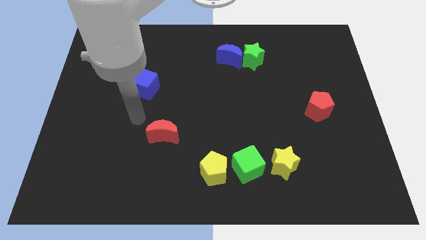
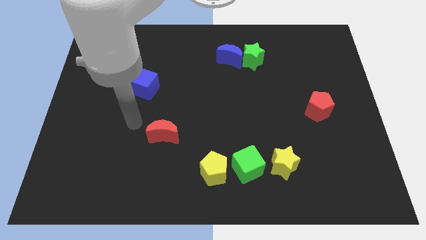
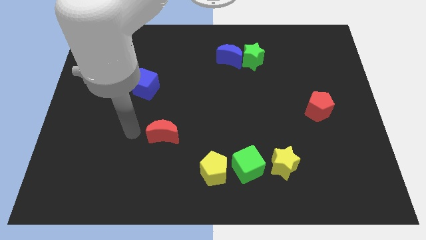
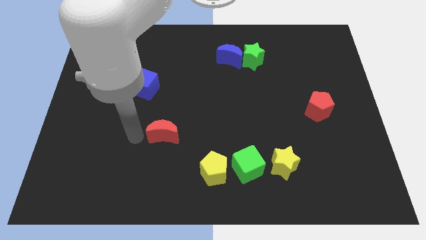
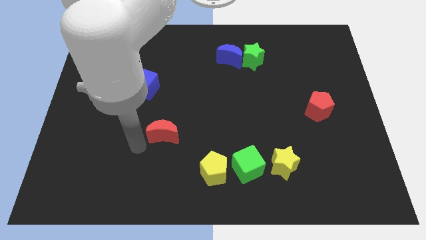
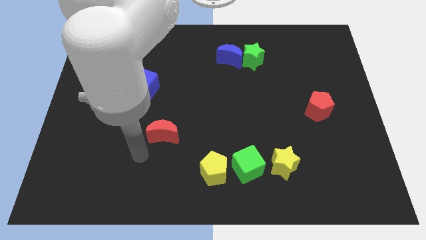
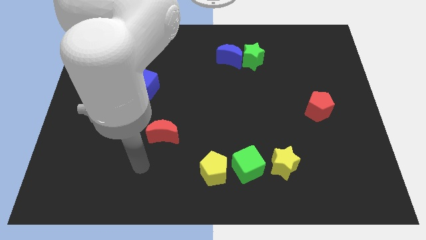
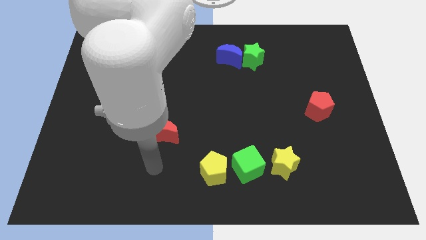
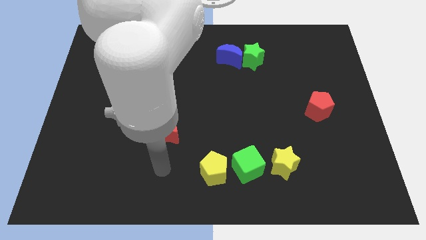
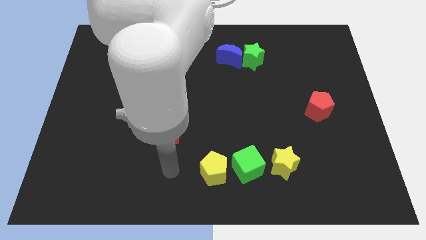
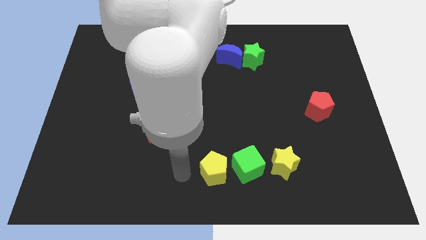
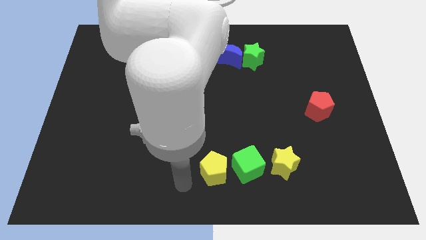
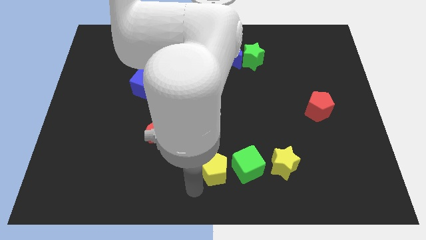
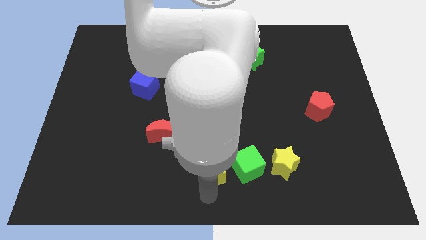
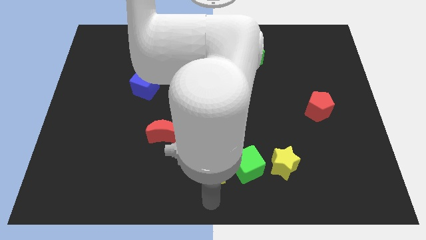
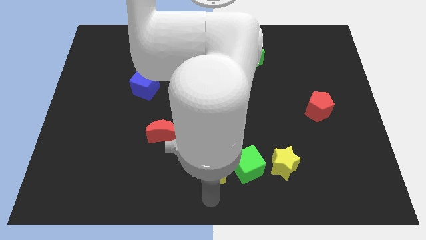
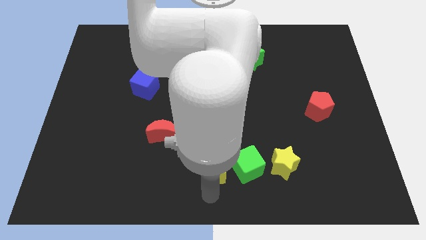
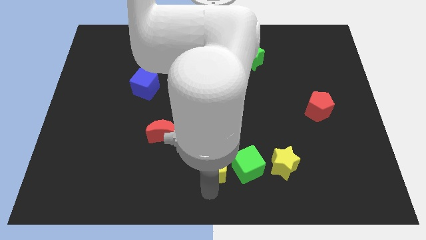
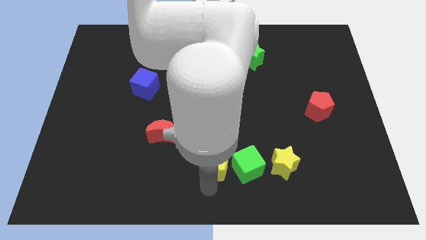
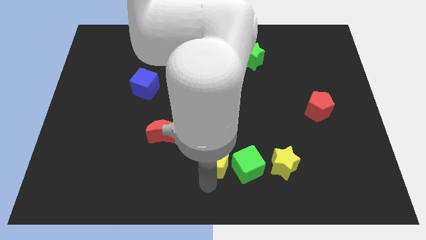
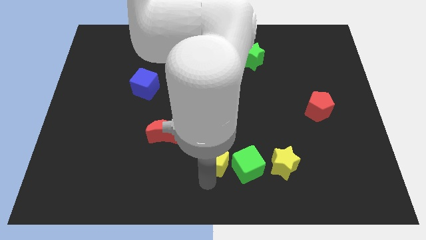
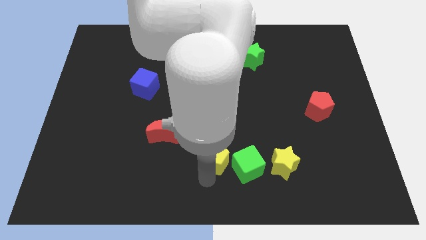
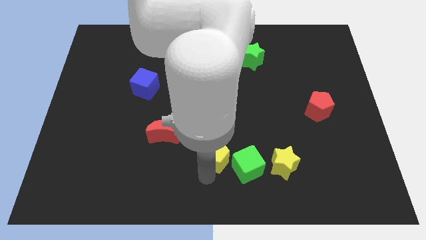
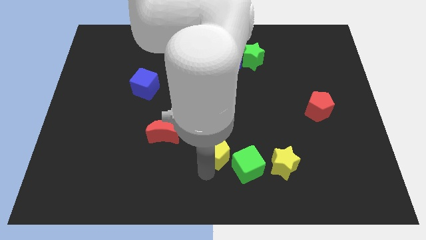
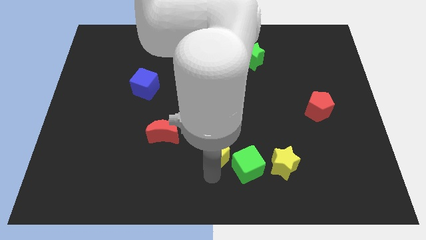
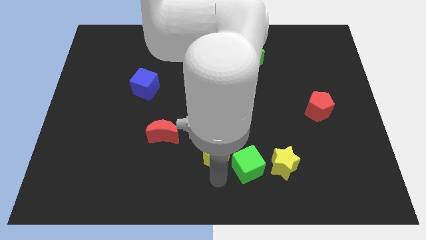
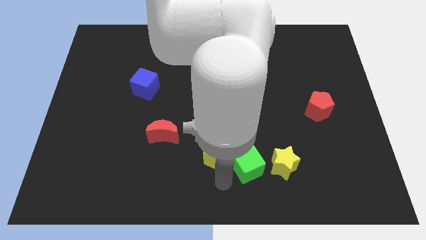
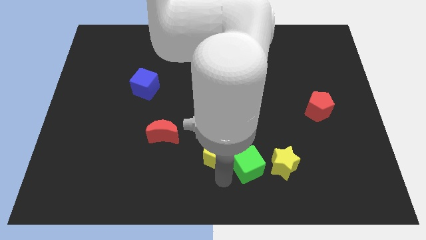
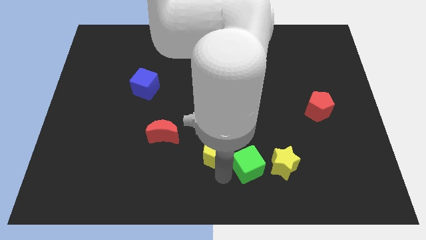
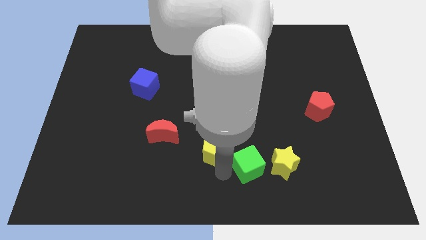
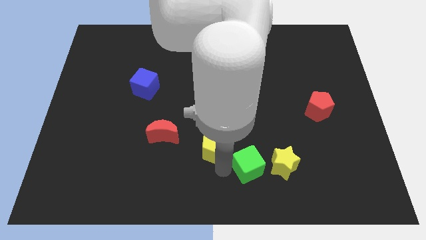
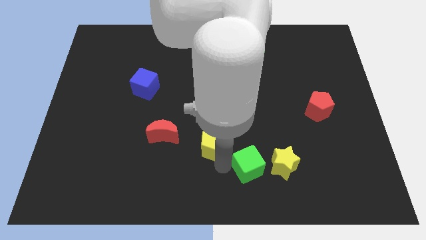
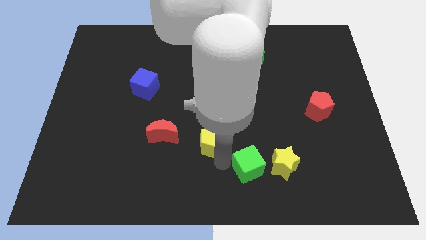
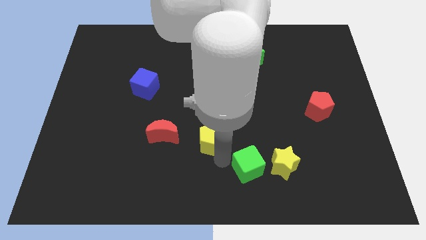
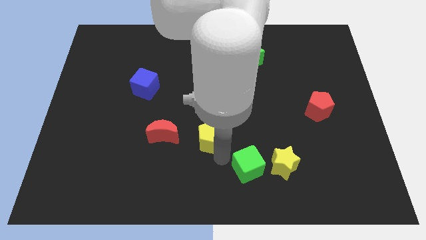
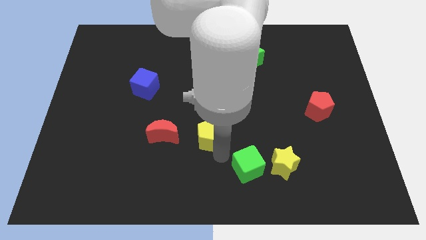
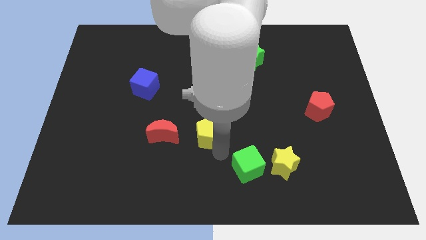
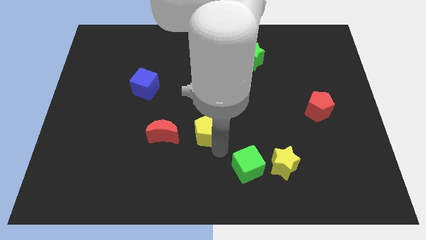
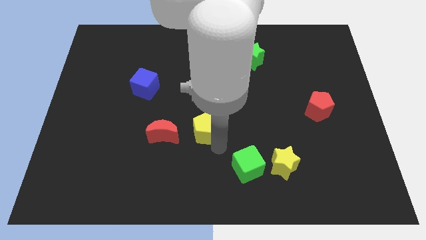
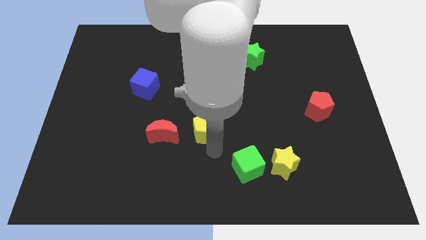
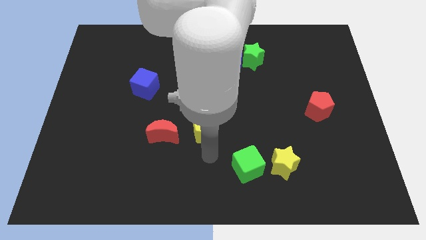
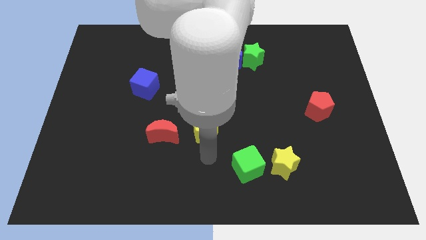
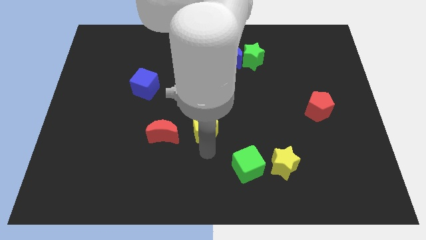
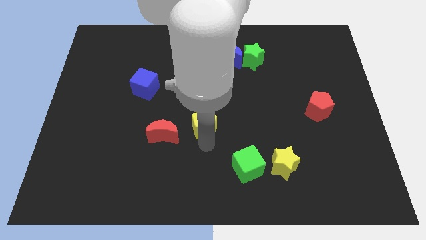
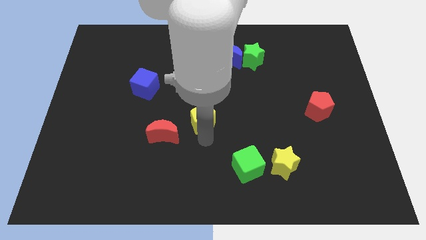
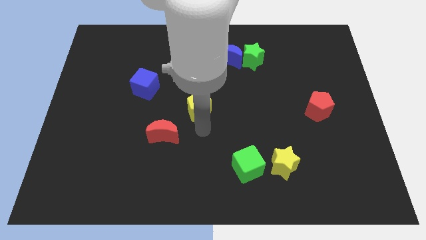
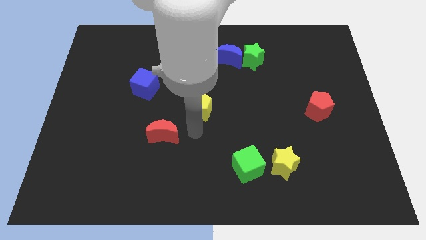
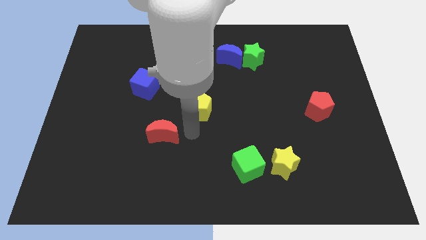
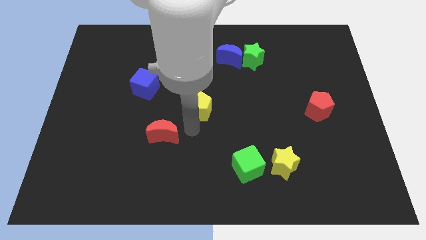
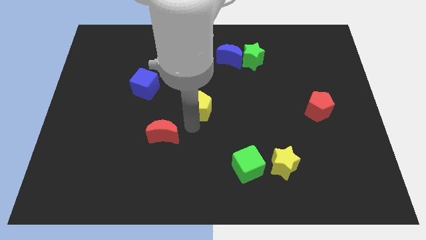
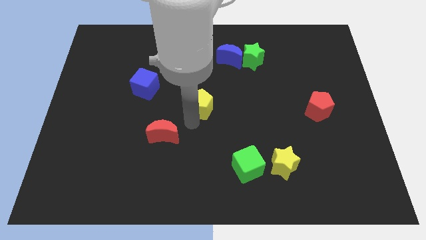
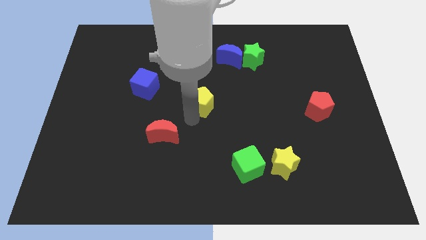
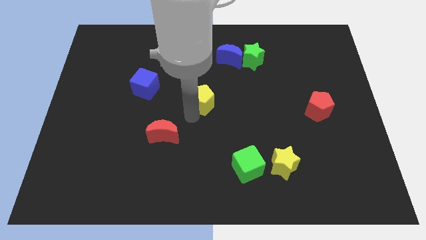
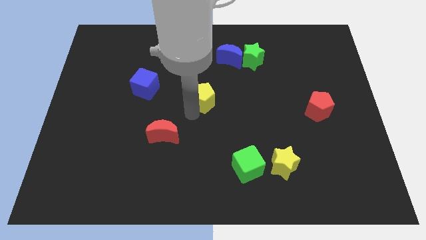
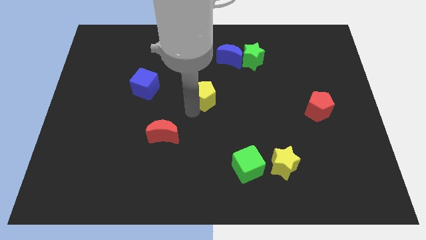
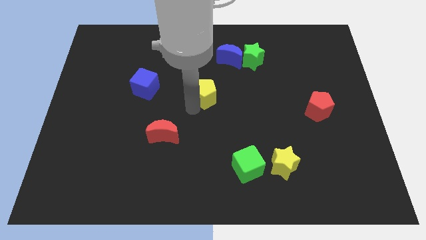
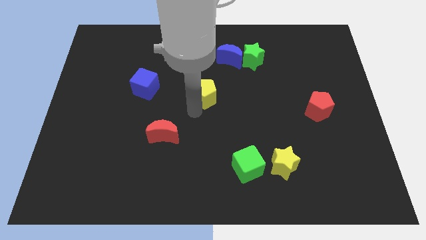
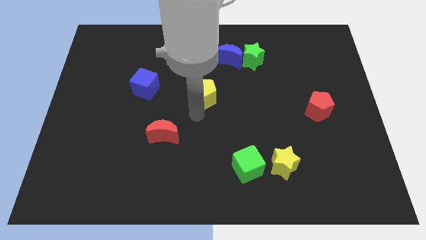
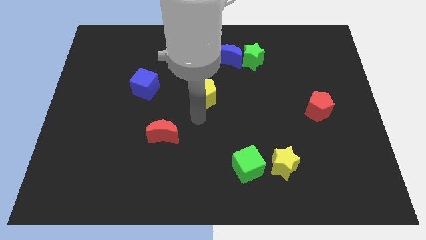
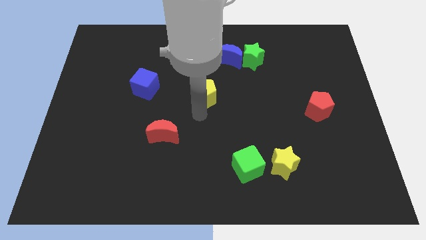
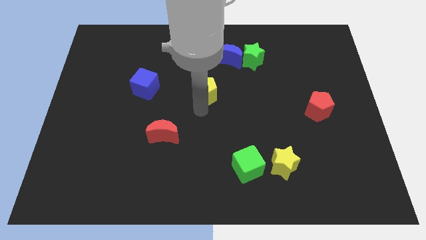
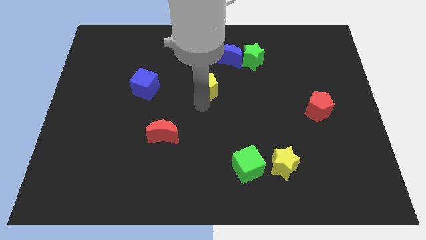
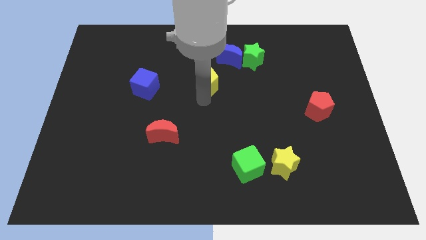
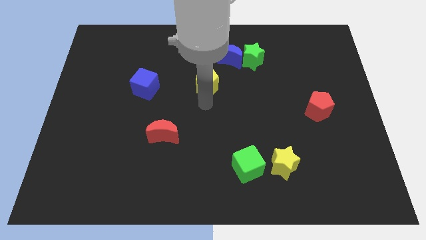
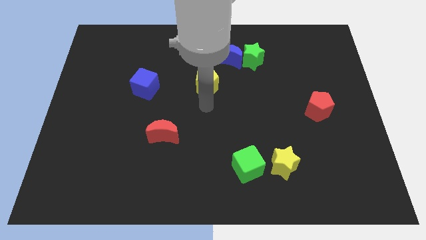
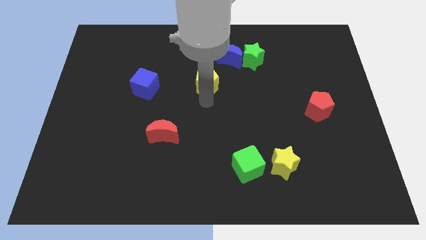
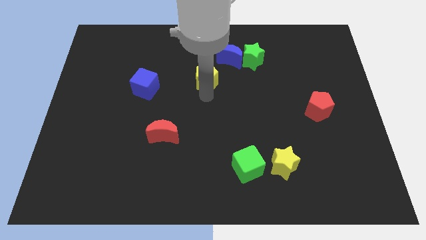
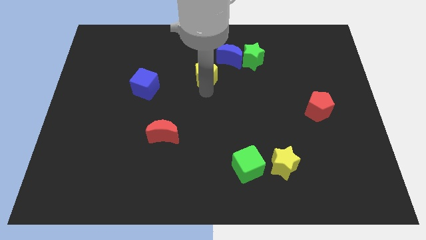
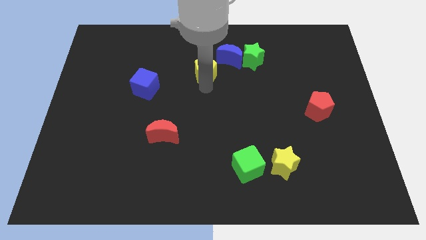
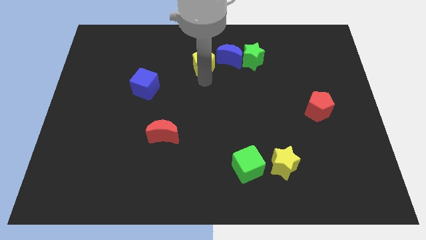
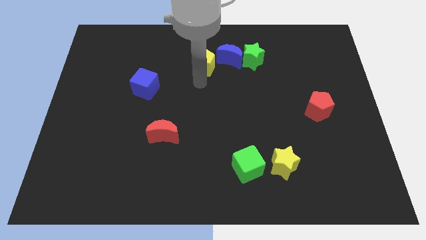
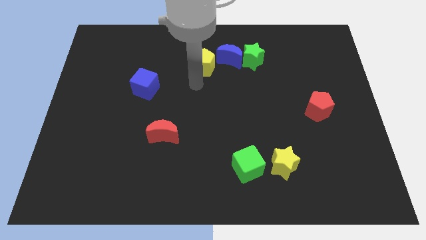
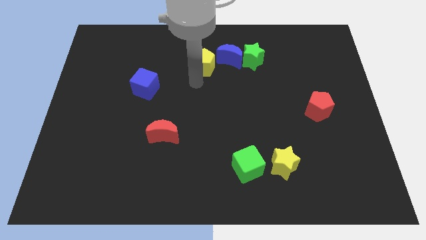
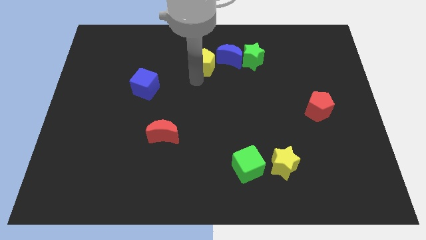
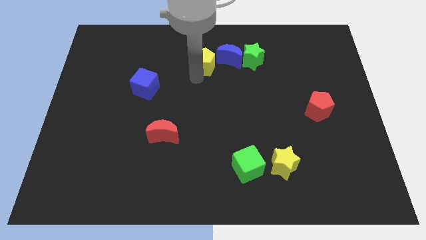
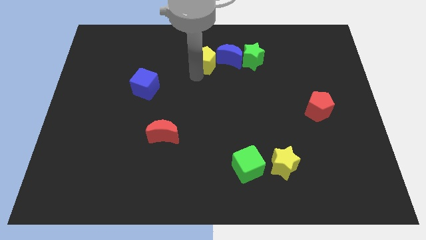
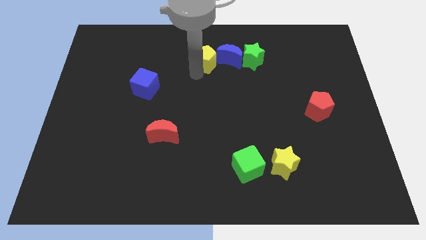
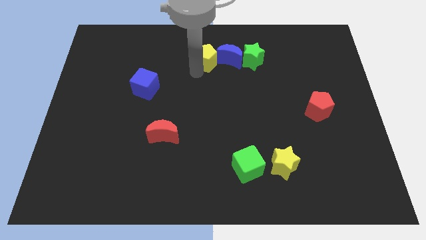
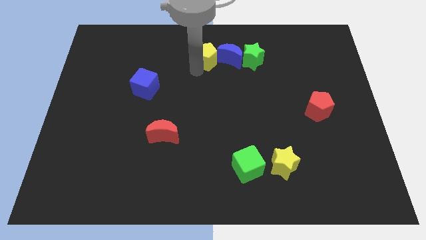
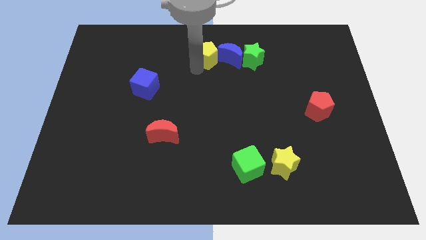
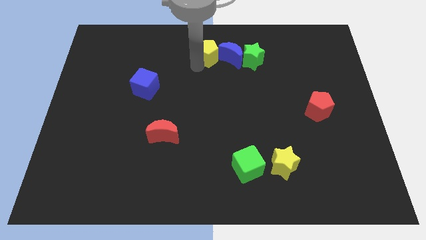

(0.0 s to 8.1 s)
push the yellow pentagon to the top side
